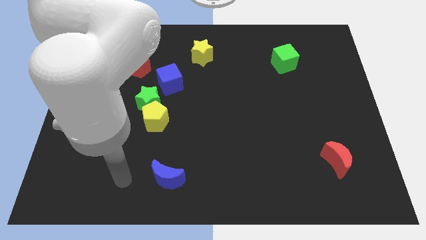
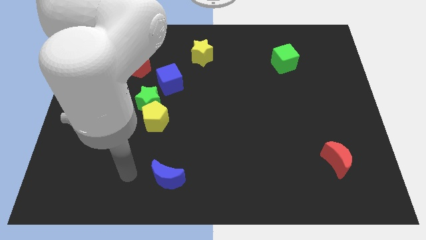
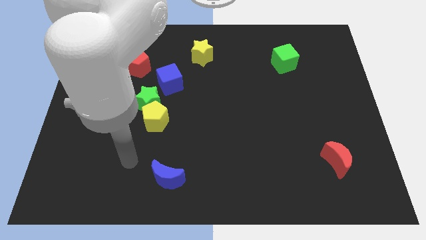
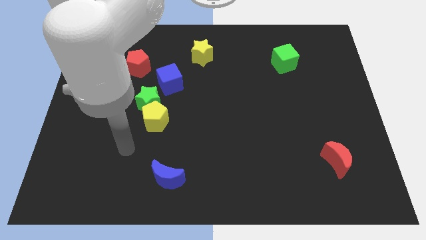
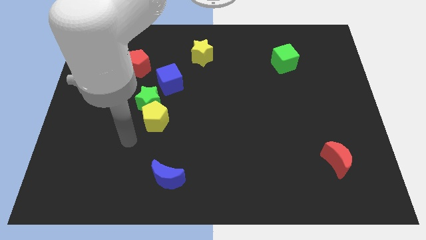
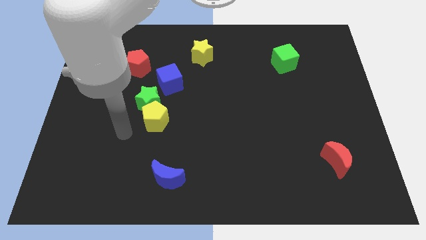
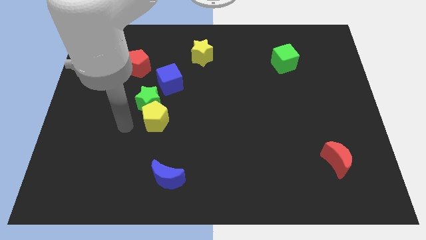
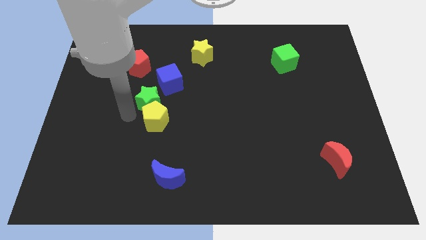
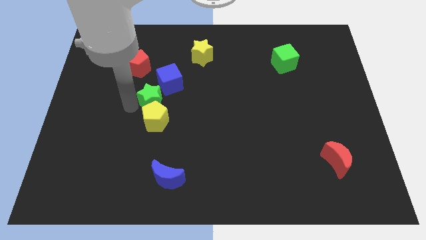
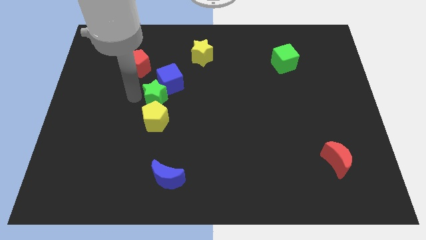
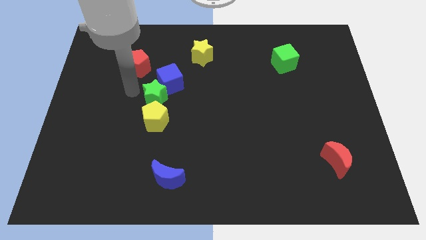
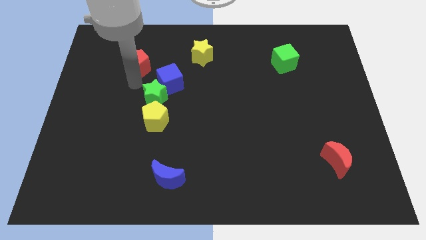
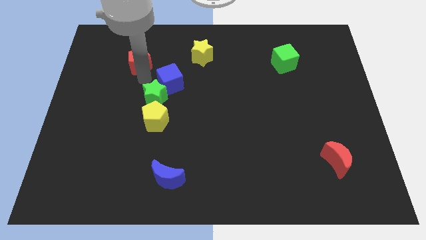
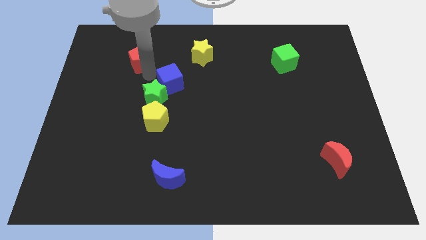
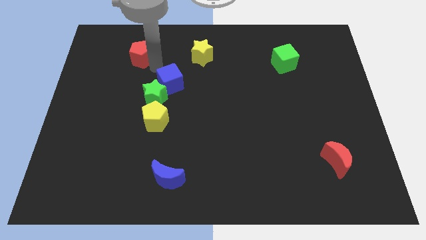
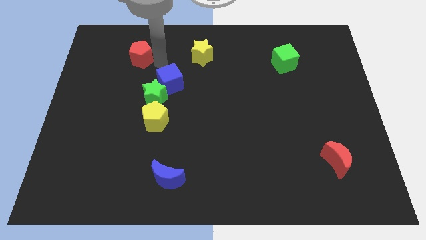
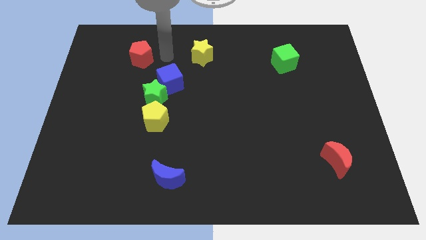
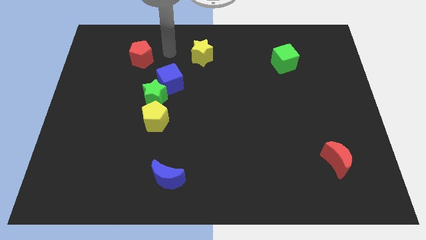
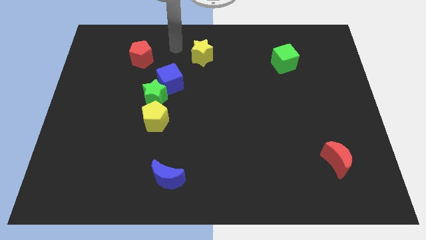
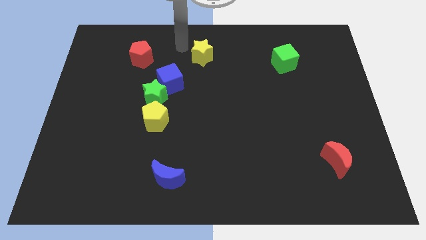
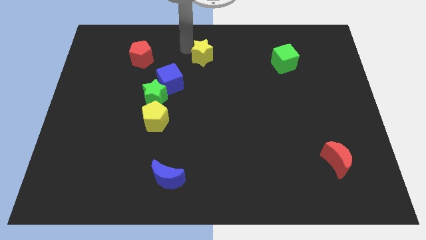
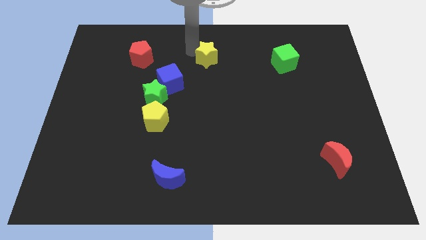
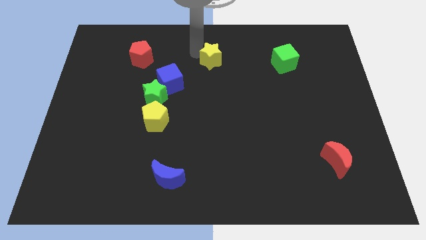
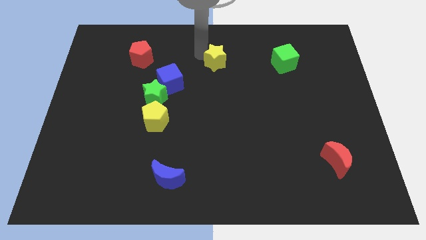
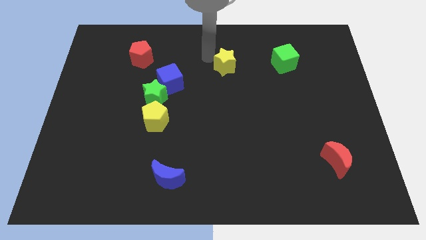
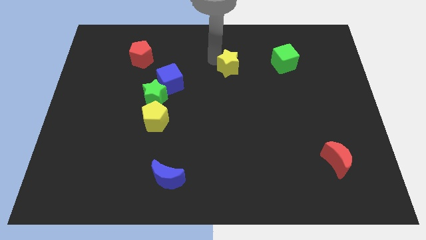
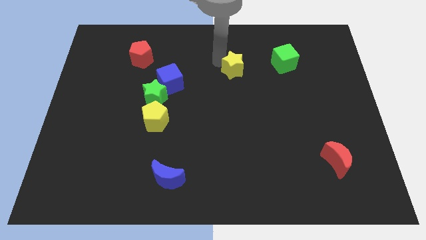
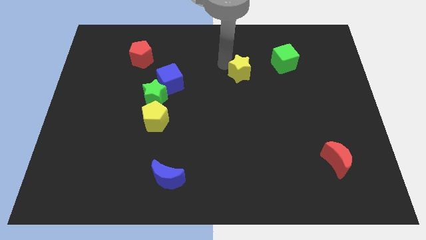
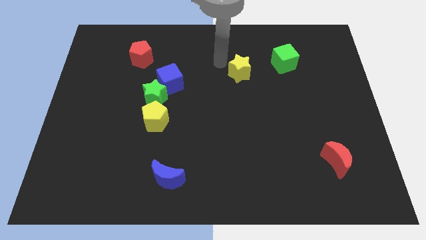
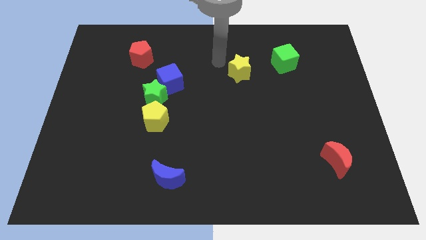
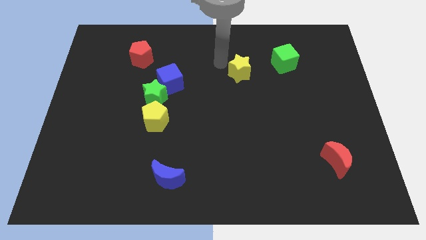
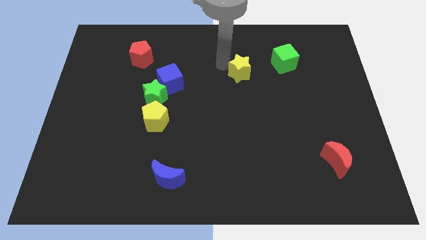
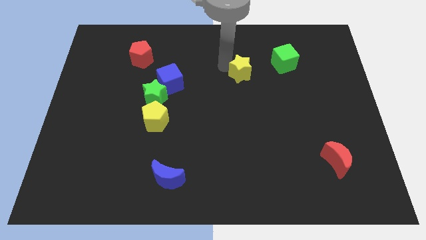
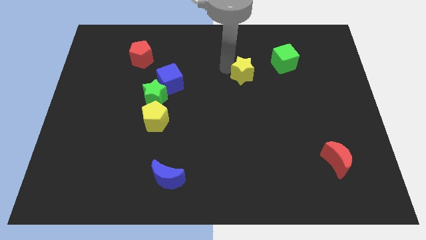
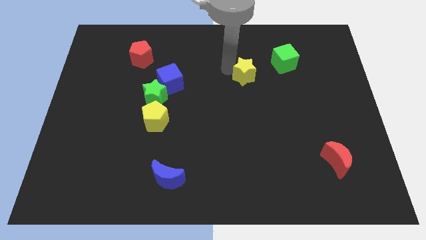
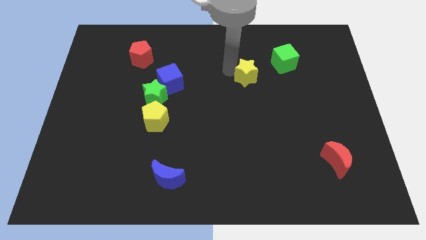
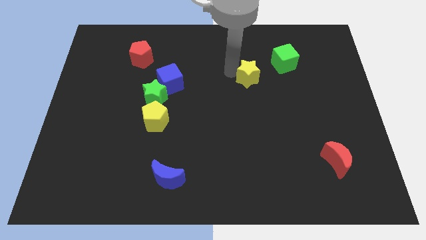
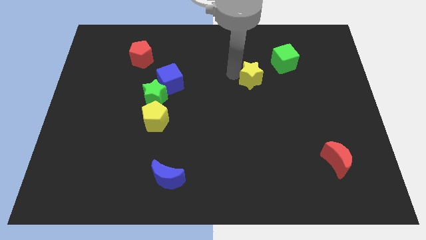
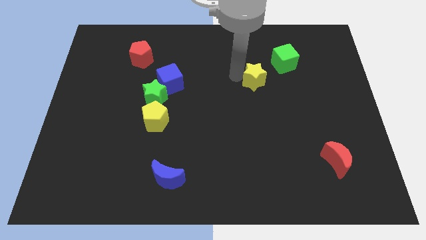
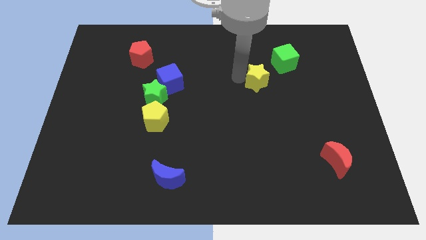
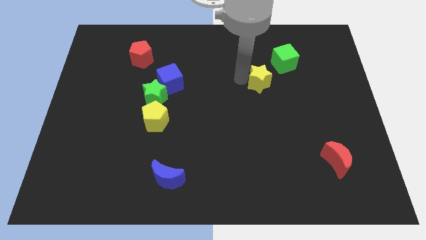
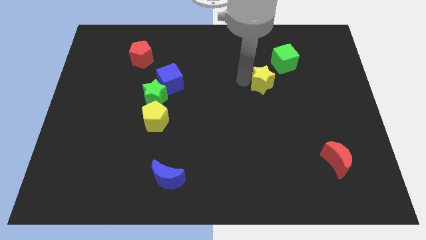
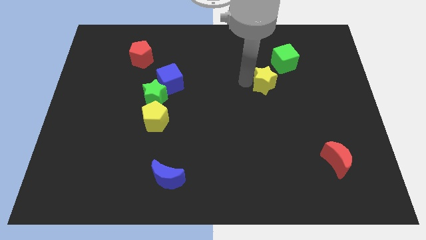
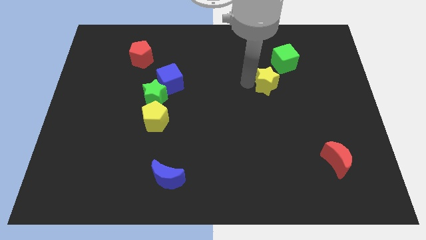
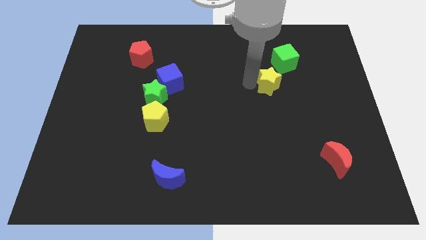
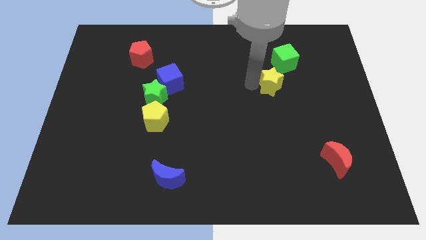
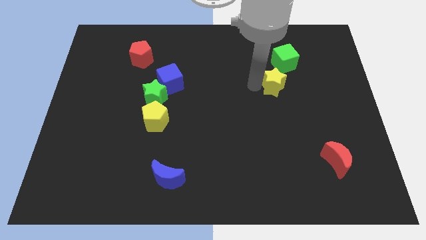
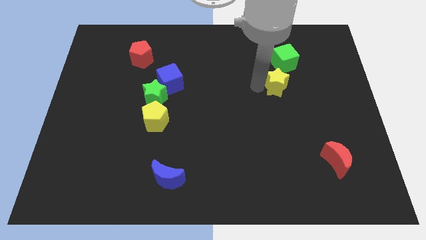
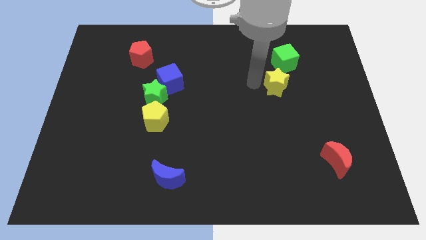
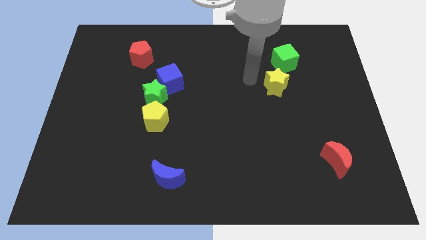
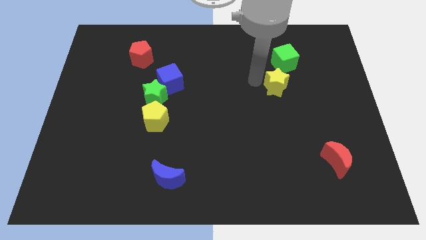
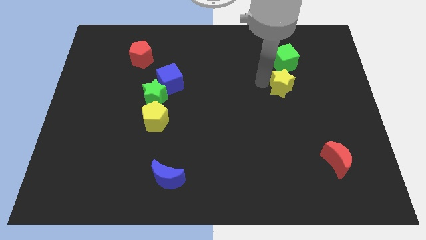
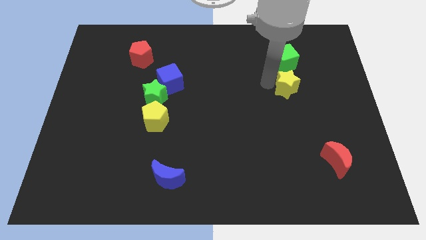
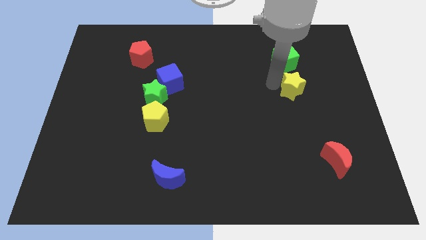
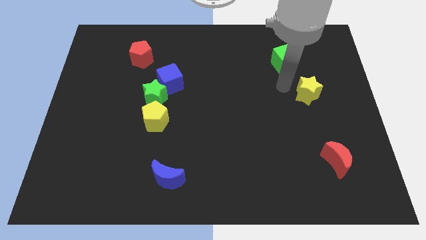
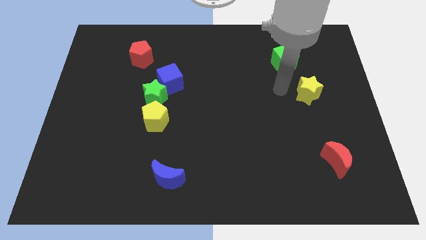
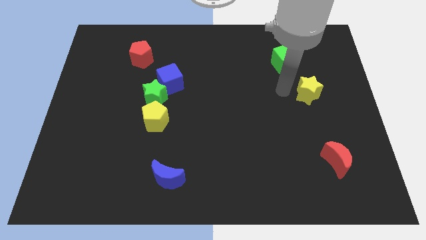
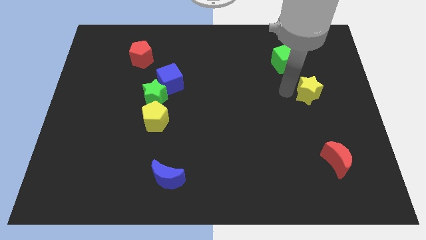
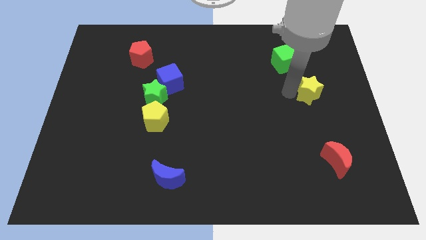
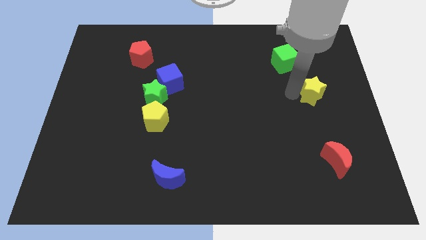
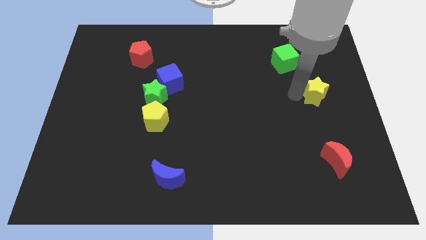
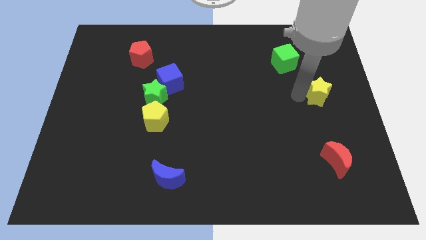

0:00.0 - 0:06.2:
slide the yellow star to the center right

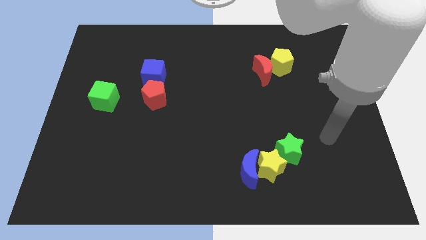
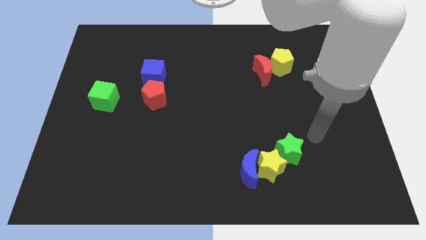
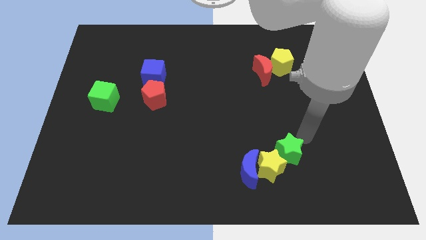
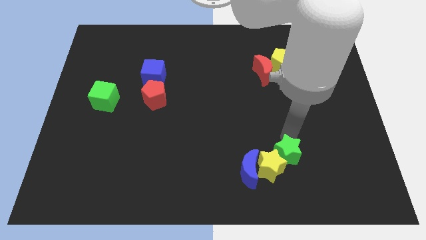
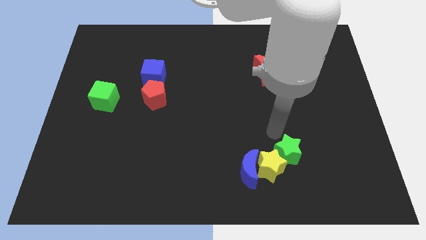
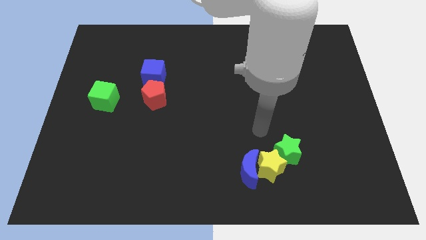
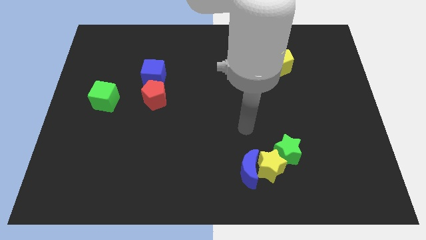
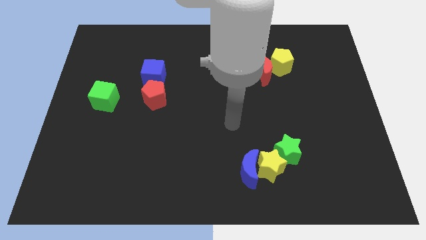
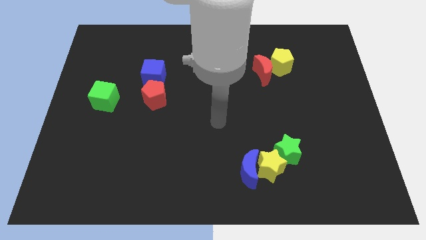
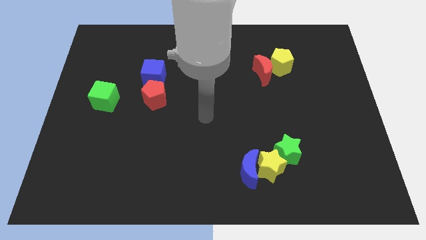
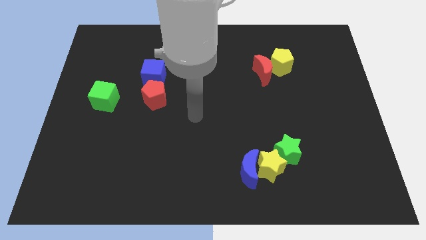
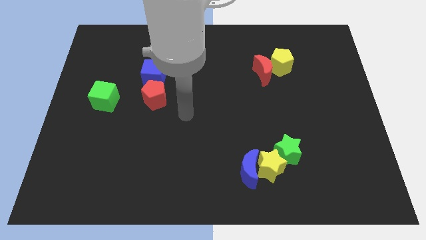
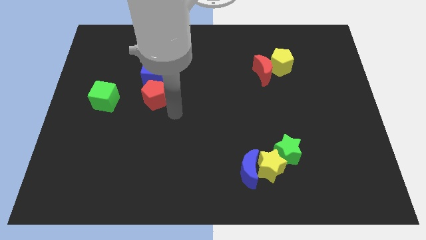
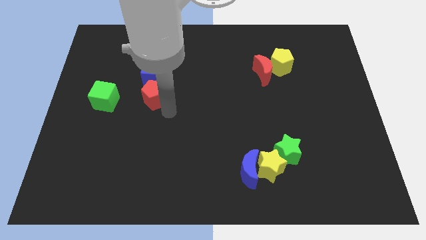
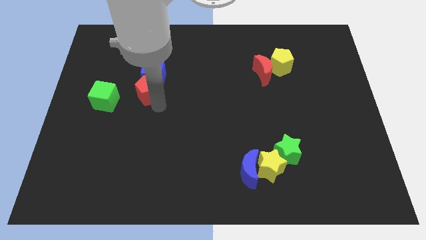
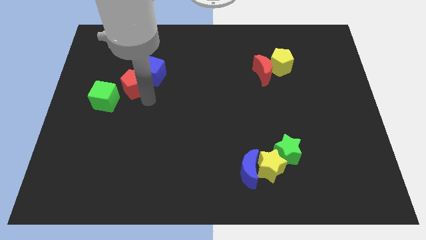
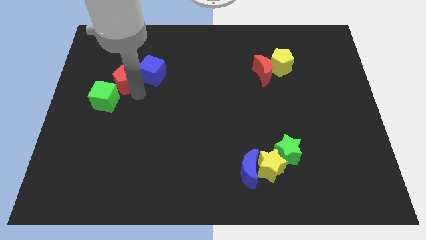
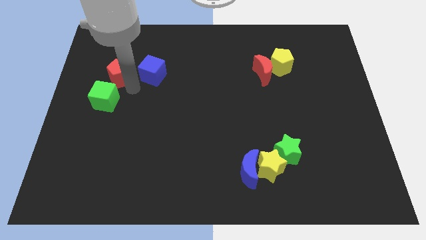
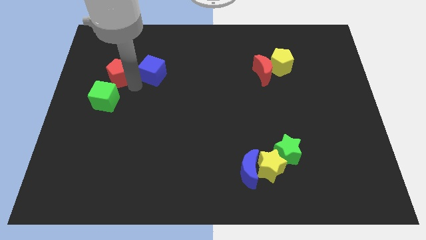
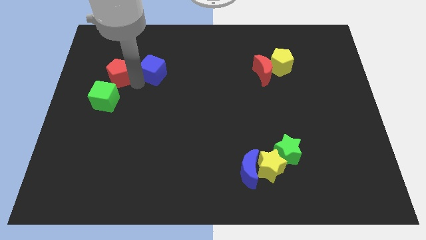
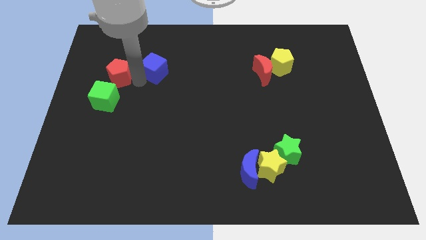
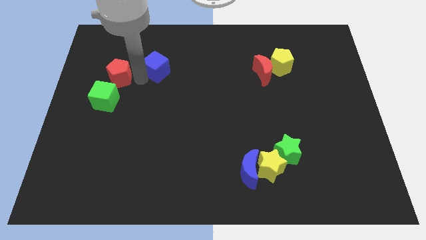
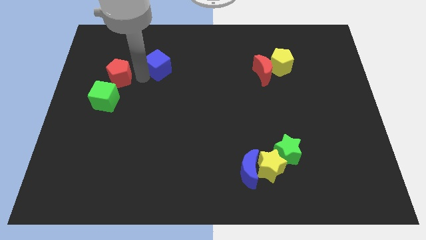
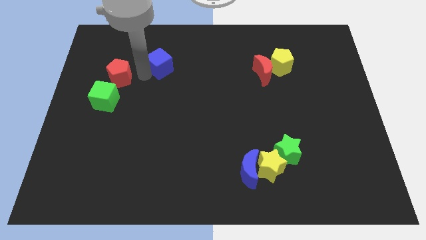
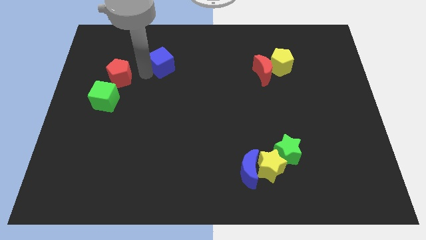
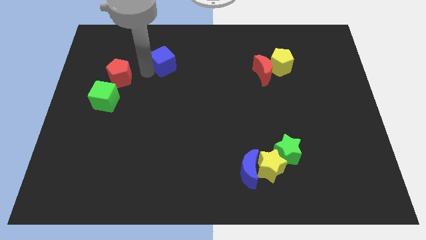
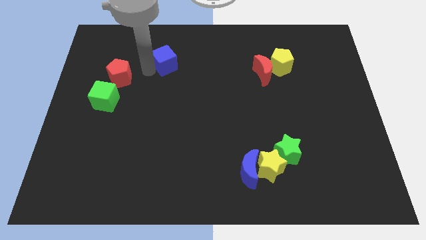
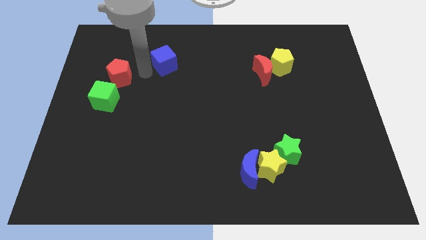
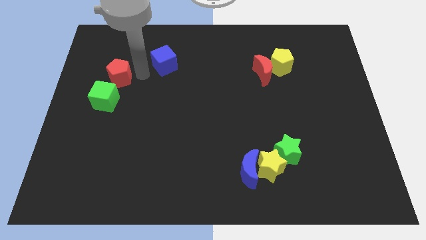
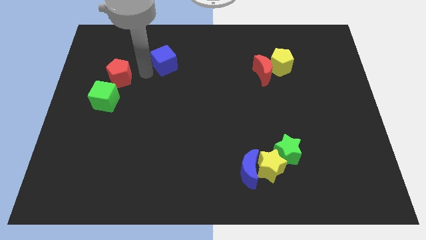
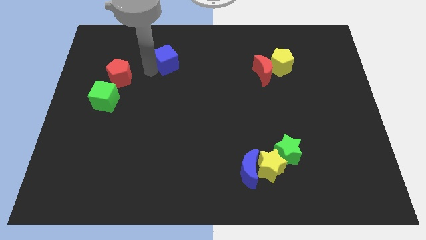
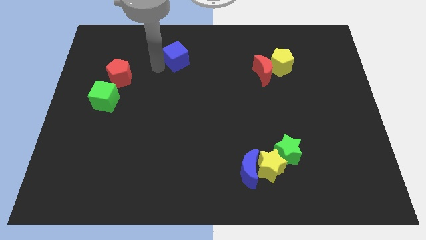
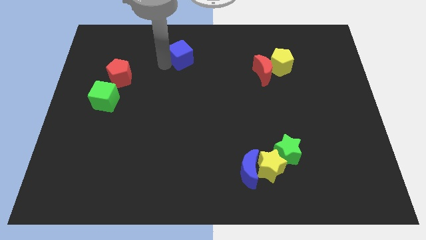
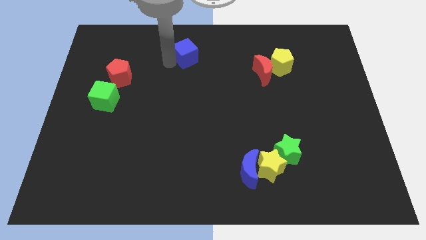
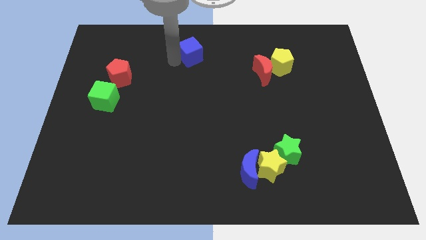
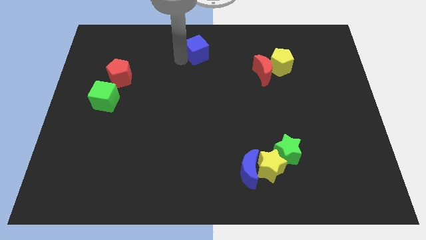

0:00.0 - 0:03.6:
push the blue cube to the top
